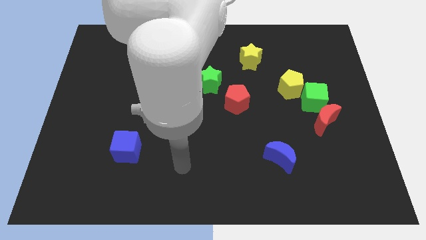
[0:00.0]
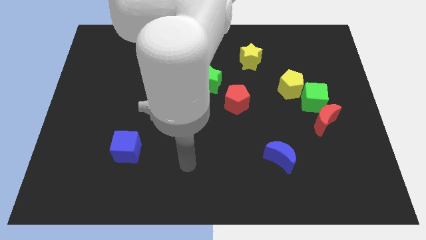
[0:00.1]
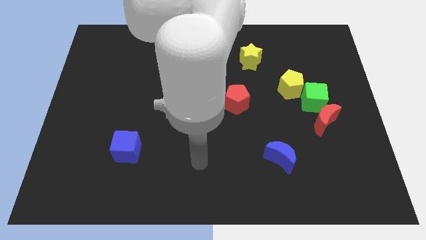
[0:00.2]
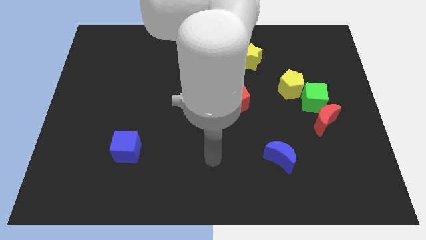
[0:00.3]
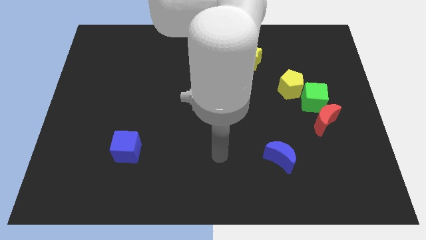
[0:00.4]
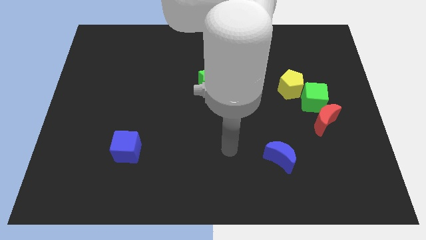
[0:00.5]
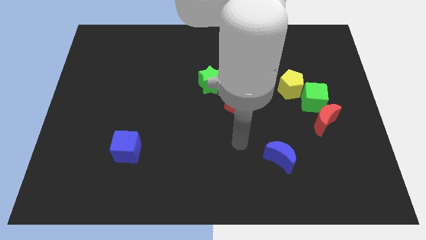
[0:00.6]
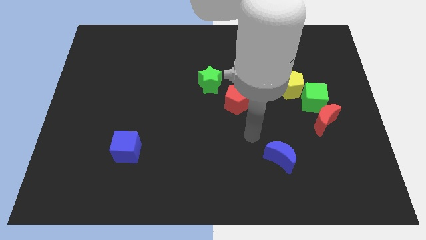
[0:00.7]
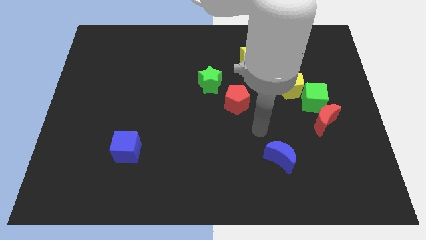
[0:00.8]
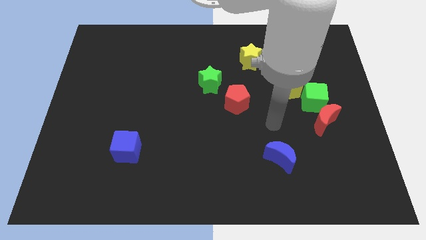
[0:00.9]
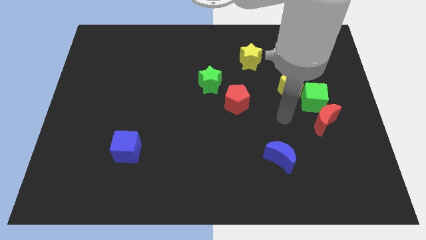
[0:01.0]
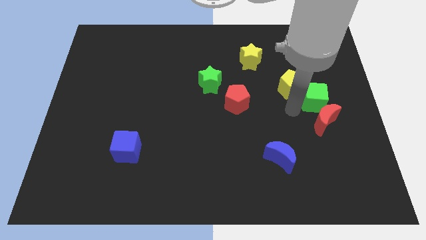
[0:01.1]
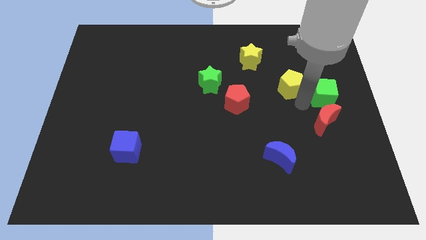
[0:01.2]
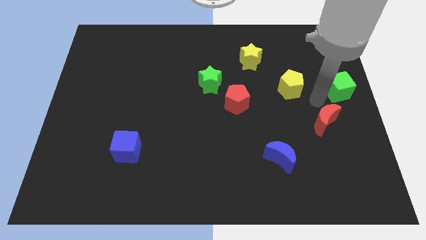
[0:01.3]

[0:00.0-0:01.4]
pull the red moon apart from the green cube

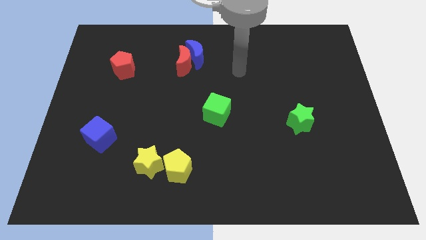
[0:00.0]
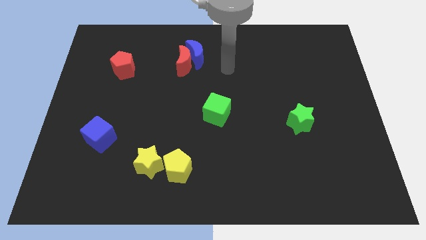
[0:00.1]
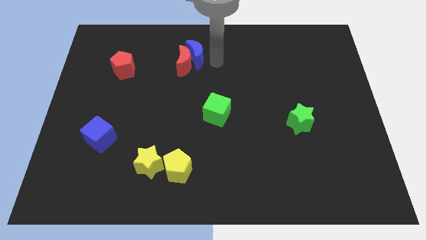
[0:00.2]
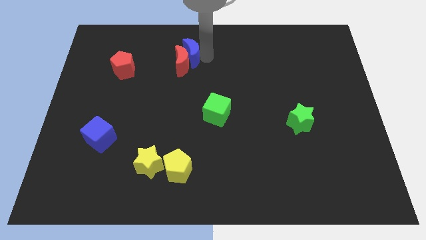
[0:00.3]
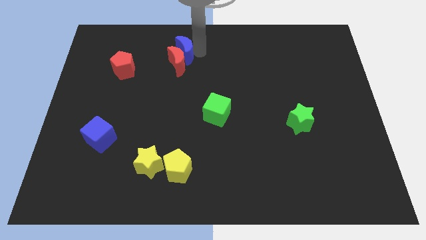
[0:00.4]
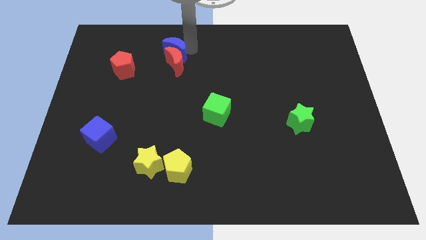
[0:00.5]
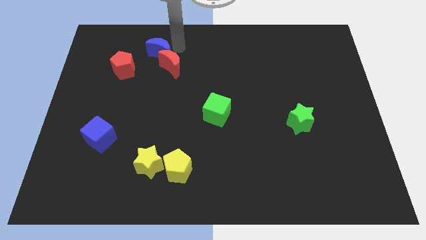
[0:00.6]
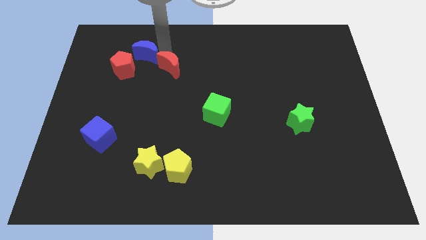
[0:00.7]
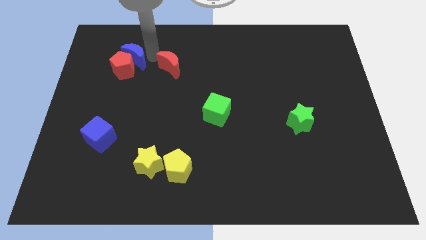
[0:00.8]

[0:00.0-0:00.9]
pull the red moon apart from the blue moon

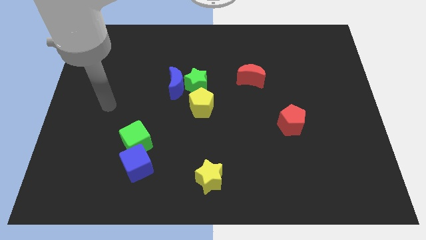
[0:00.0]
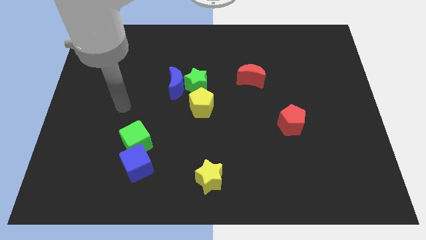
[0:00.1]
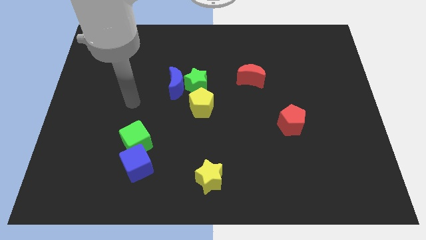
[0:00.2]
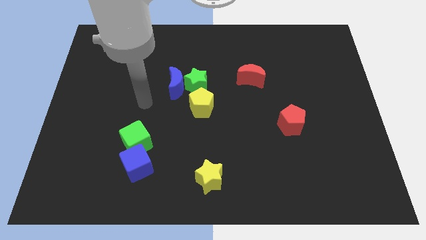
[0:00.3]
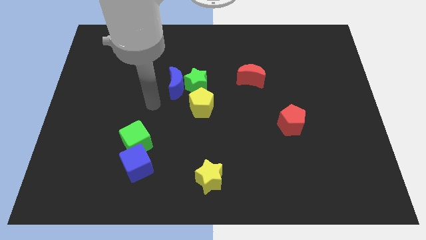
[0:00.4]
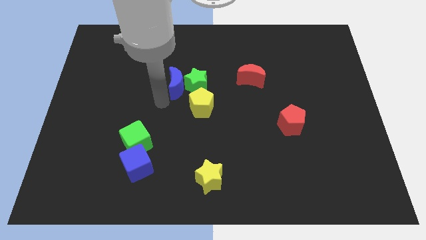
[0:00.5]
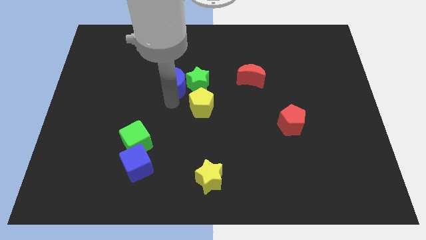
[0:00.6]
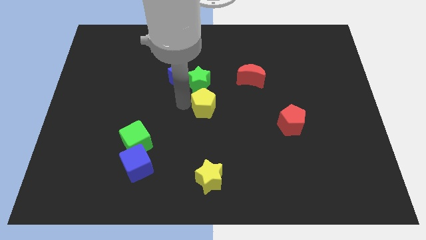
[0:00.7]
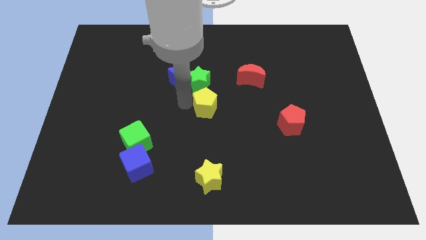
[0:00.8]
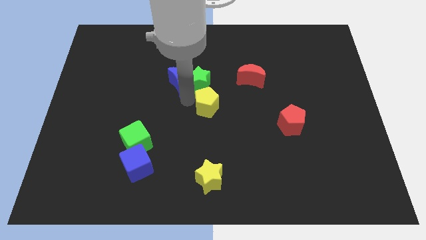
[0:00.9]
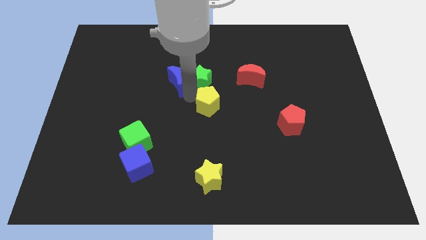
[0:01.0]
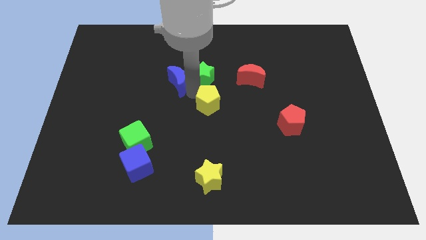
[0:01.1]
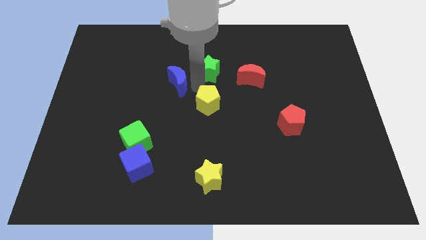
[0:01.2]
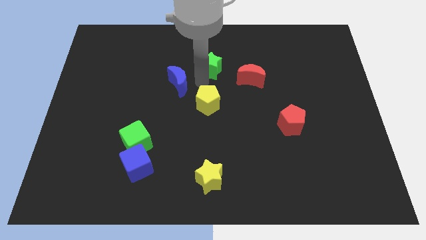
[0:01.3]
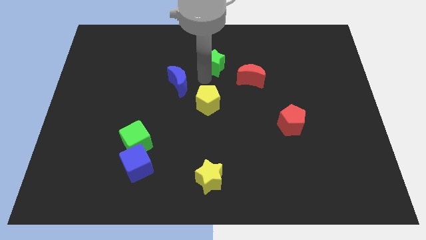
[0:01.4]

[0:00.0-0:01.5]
separate the green star from the blue moon and yellow pentagon

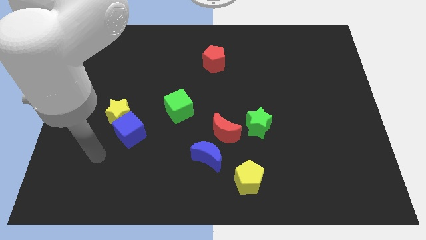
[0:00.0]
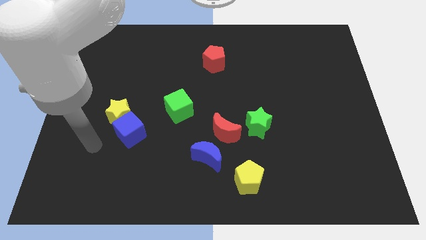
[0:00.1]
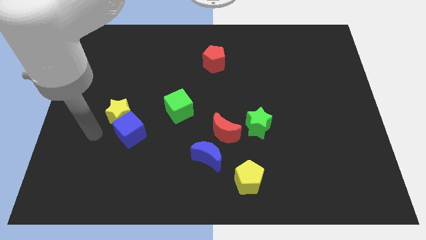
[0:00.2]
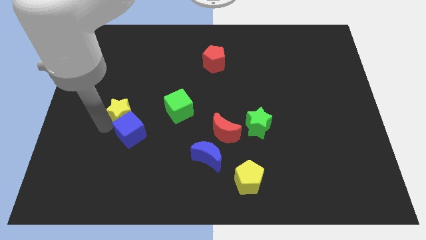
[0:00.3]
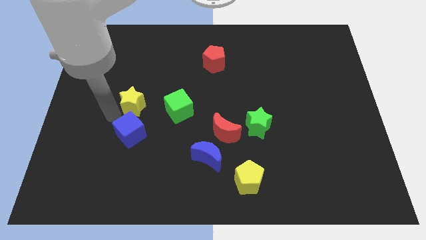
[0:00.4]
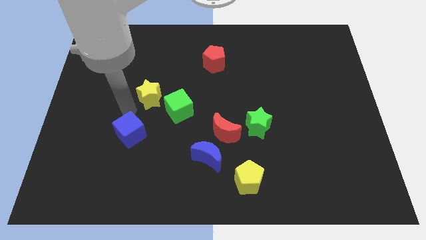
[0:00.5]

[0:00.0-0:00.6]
separate the blue cube from the yellow star

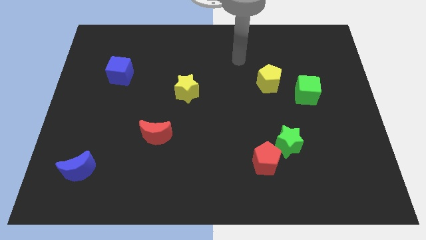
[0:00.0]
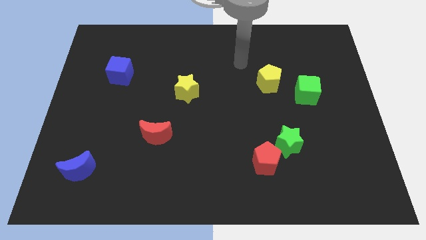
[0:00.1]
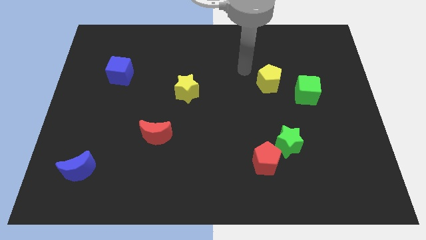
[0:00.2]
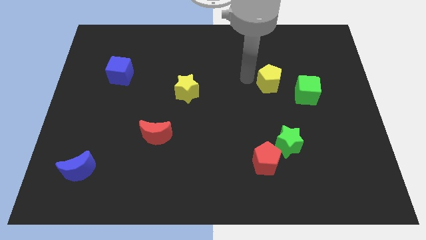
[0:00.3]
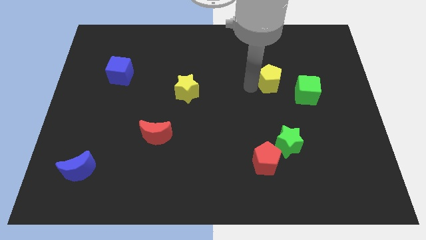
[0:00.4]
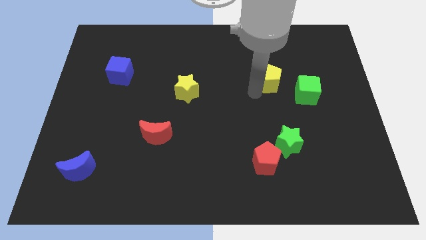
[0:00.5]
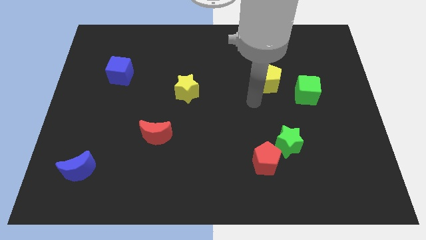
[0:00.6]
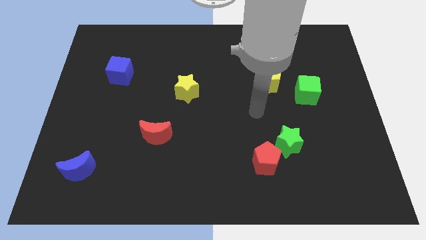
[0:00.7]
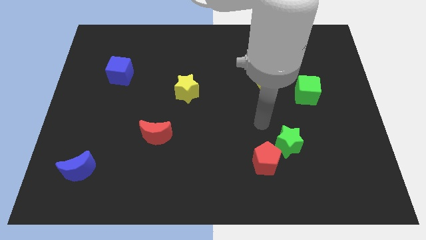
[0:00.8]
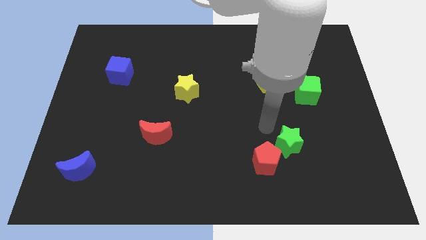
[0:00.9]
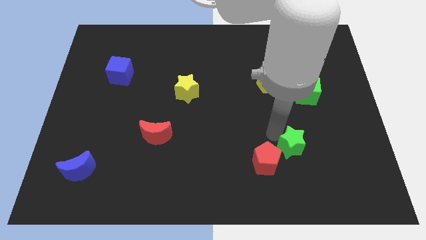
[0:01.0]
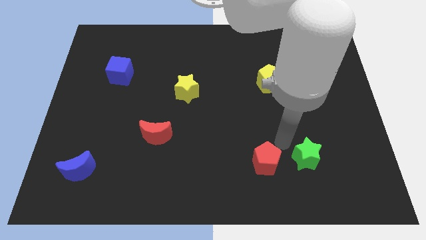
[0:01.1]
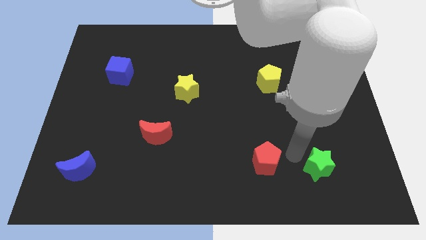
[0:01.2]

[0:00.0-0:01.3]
pull the red pentagon apart from the green star

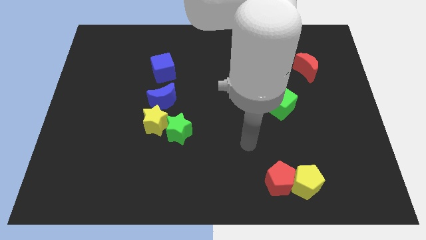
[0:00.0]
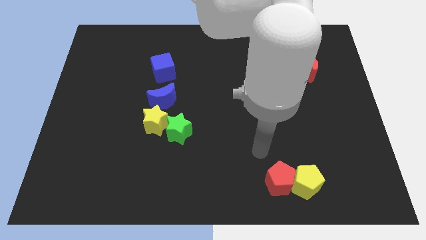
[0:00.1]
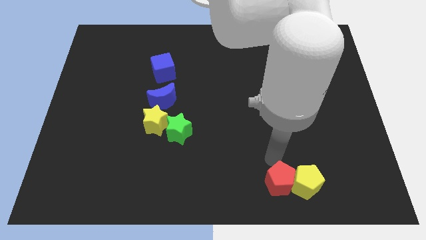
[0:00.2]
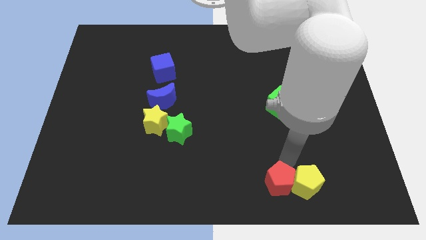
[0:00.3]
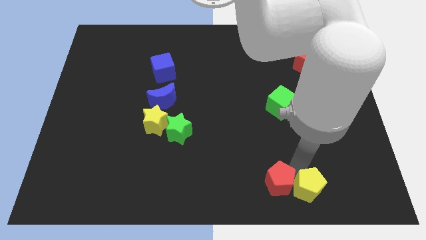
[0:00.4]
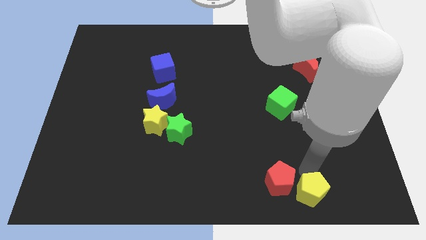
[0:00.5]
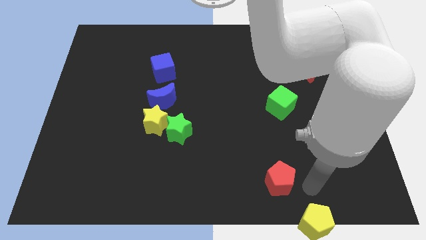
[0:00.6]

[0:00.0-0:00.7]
move the red pentagon away from the yellow pentagon

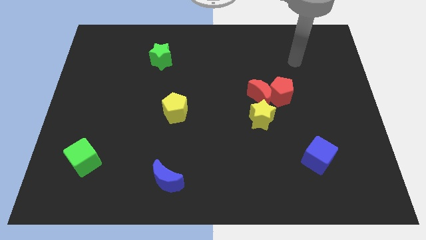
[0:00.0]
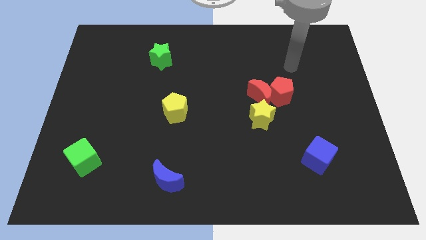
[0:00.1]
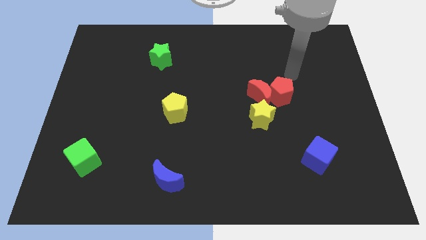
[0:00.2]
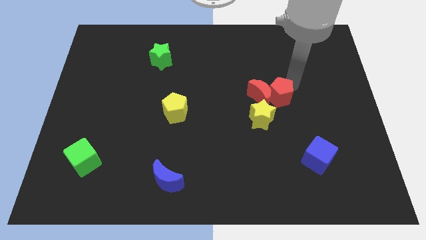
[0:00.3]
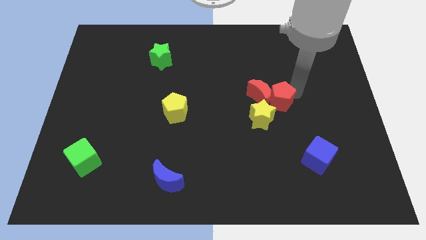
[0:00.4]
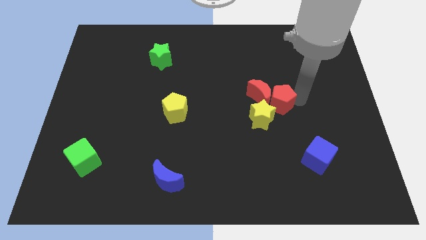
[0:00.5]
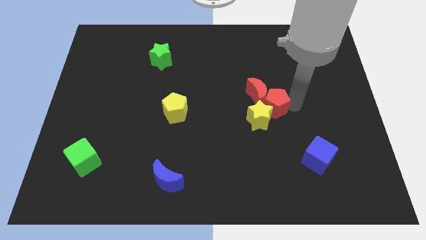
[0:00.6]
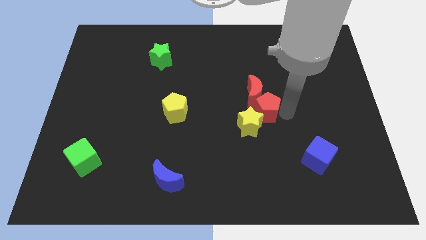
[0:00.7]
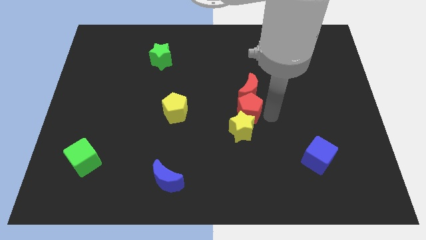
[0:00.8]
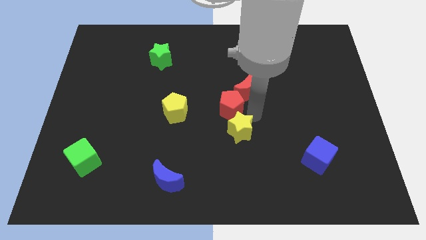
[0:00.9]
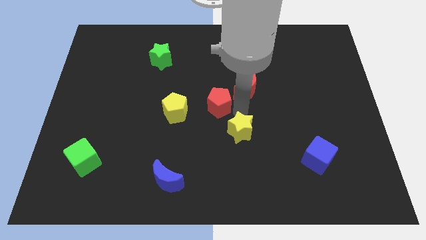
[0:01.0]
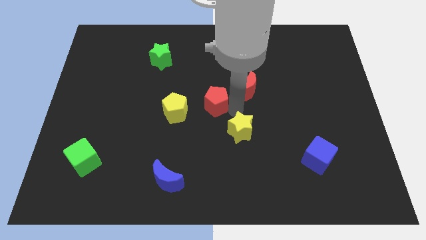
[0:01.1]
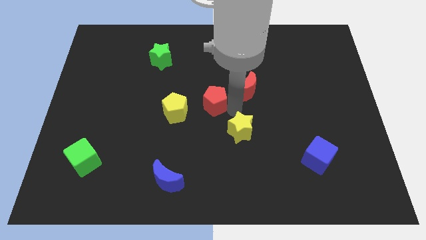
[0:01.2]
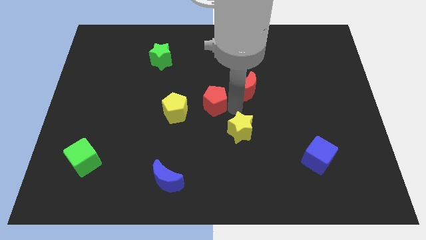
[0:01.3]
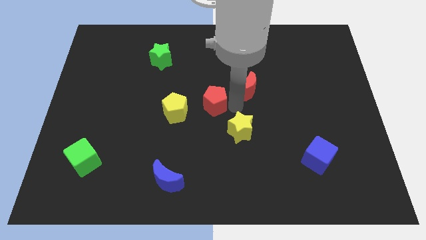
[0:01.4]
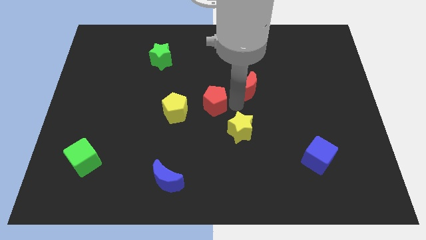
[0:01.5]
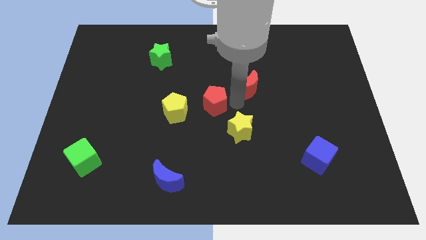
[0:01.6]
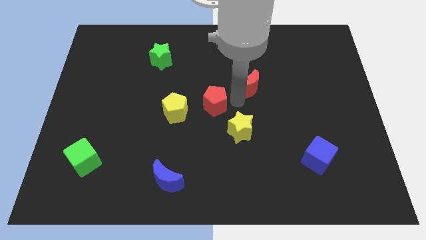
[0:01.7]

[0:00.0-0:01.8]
separate the red moon from the red pentagon and yellow star

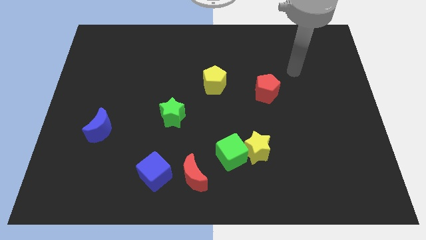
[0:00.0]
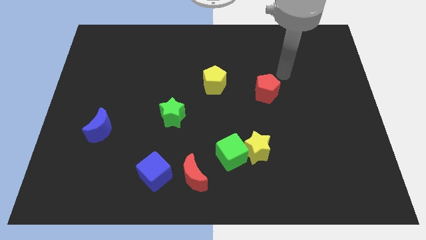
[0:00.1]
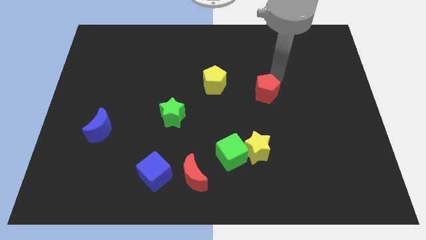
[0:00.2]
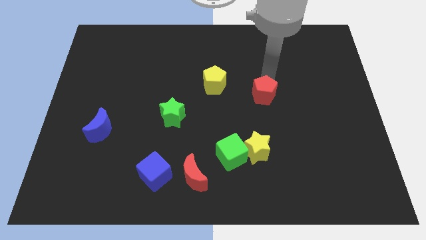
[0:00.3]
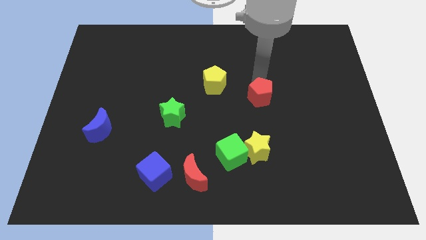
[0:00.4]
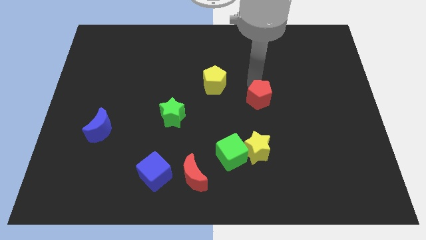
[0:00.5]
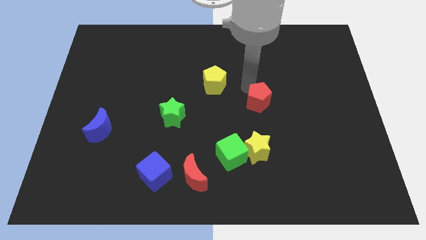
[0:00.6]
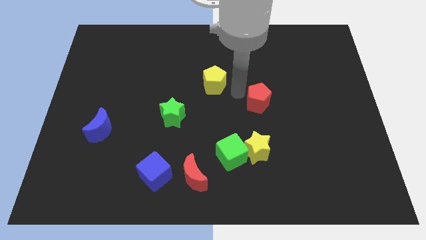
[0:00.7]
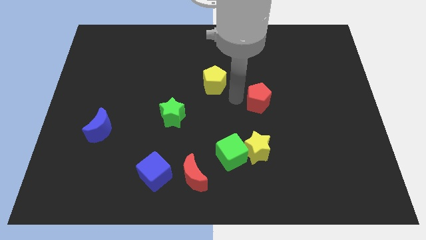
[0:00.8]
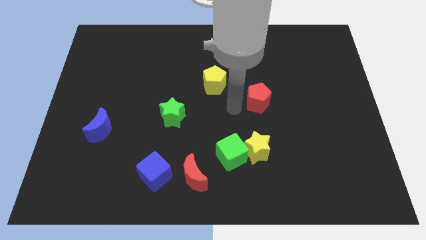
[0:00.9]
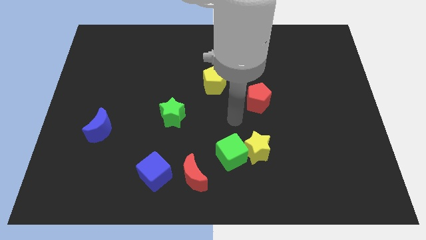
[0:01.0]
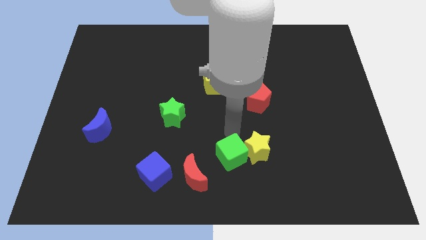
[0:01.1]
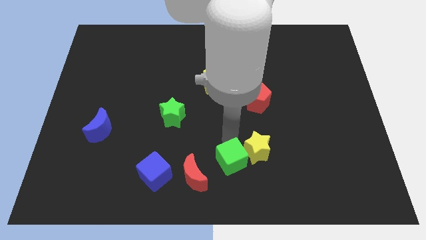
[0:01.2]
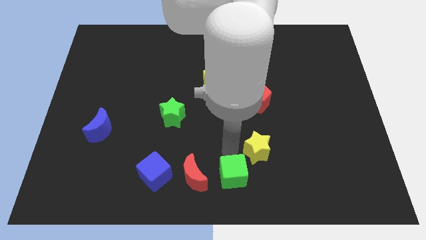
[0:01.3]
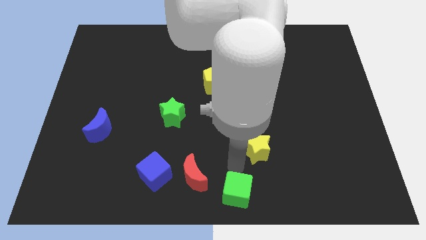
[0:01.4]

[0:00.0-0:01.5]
separate the yellow star from the green cube
